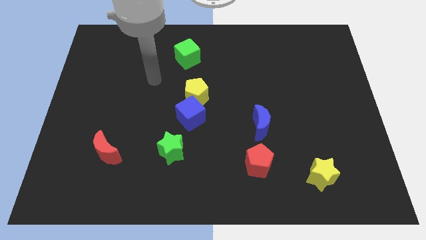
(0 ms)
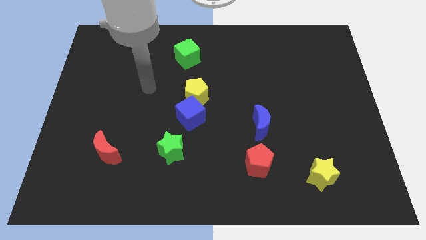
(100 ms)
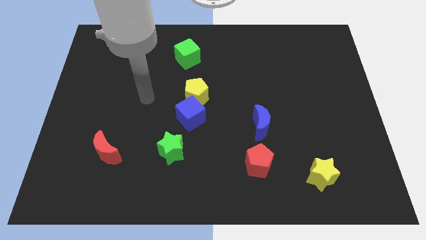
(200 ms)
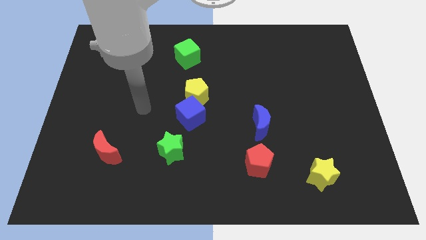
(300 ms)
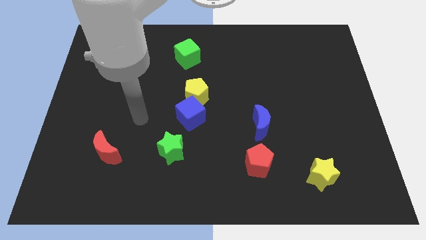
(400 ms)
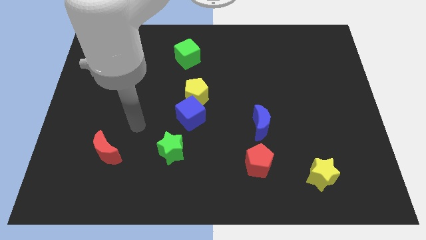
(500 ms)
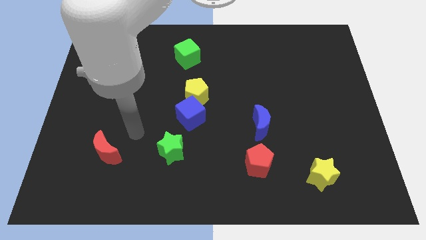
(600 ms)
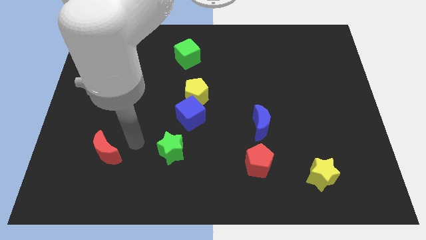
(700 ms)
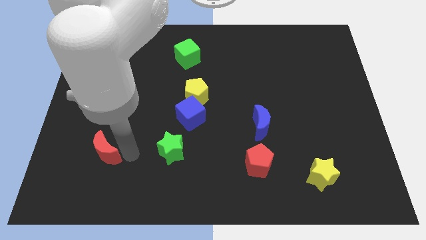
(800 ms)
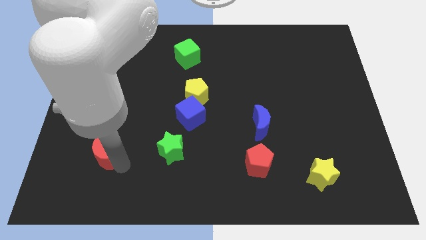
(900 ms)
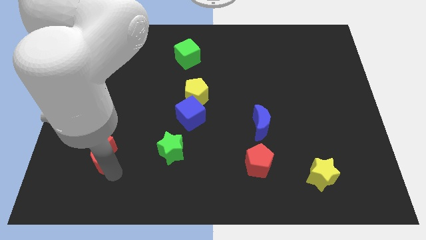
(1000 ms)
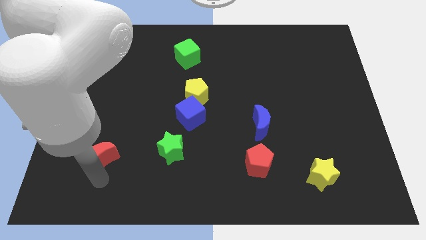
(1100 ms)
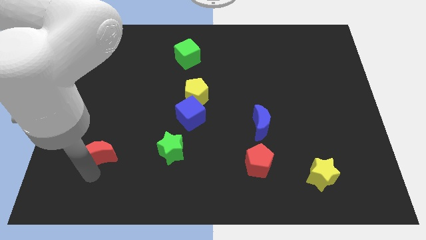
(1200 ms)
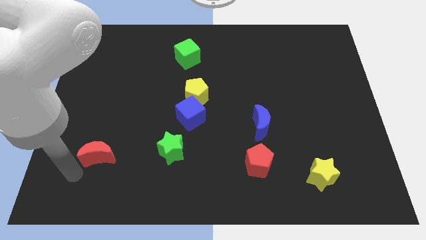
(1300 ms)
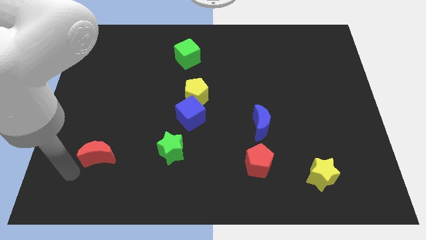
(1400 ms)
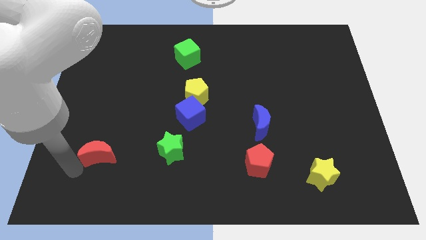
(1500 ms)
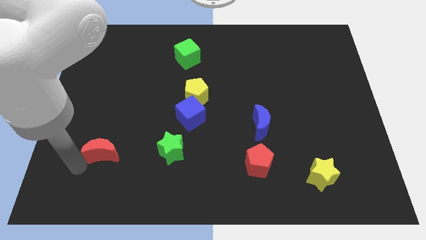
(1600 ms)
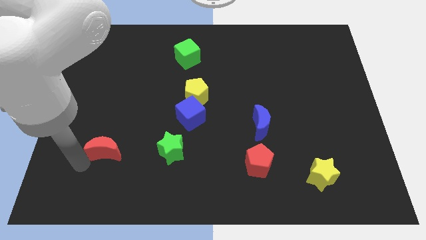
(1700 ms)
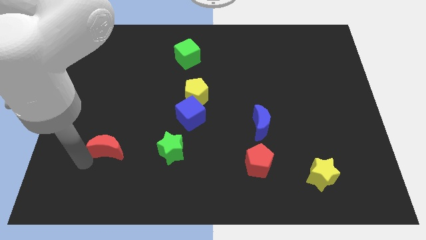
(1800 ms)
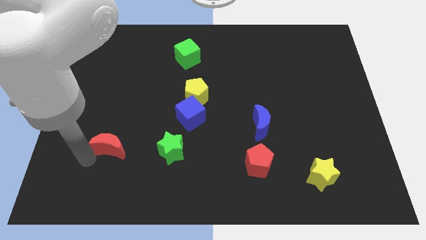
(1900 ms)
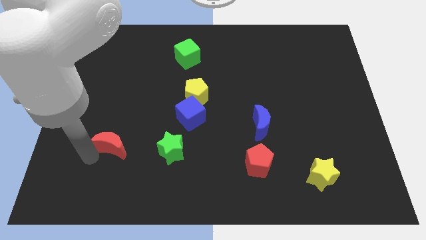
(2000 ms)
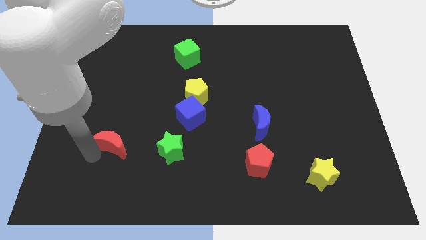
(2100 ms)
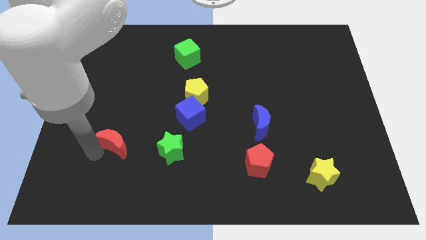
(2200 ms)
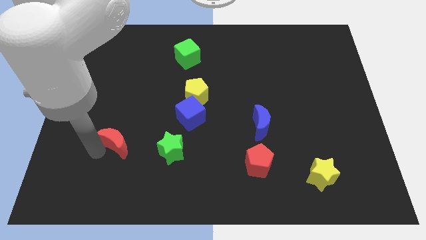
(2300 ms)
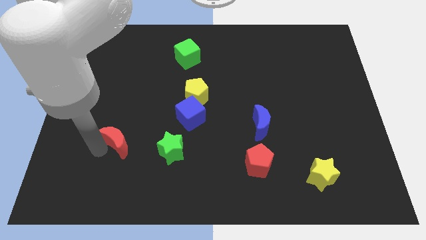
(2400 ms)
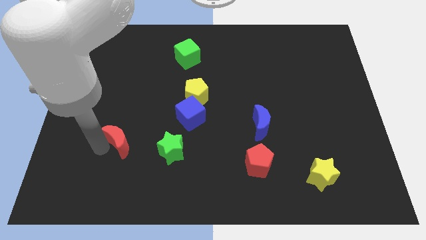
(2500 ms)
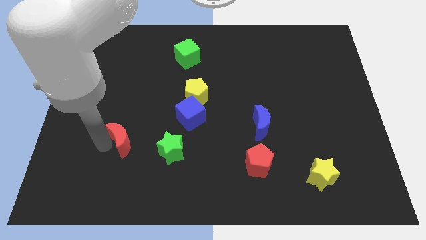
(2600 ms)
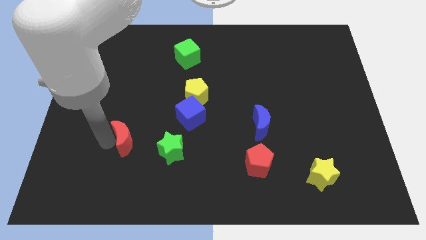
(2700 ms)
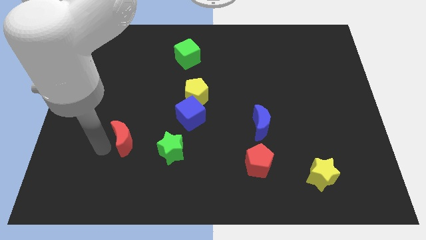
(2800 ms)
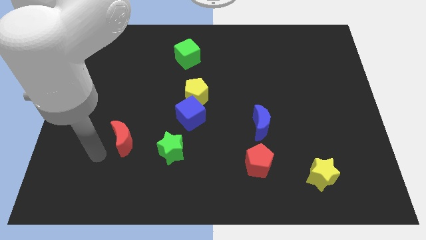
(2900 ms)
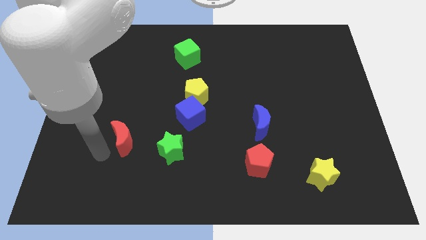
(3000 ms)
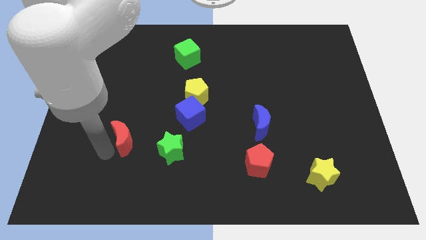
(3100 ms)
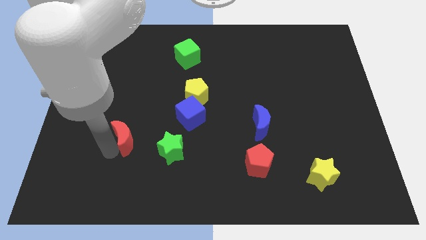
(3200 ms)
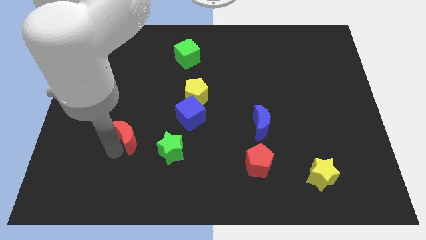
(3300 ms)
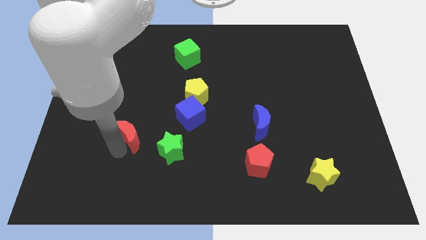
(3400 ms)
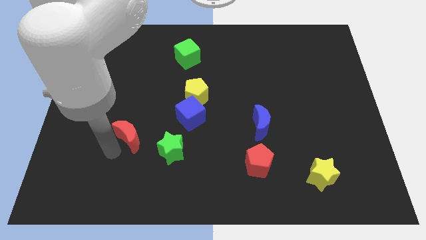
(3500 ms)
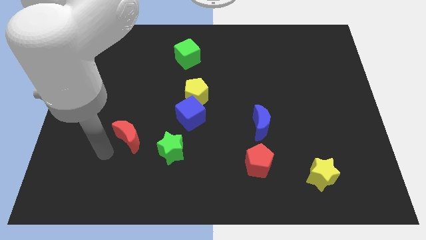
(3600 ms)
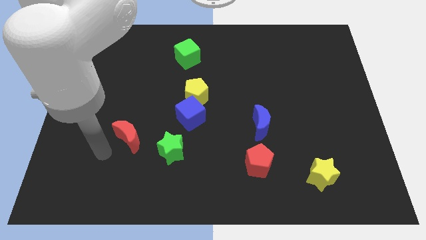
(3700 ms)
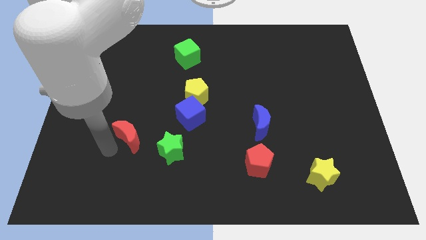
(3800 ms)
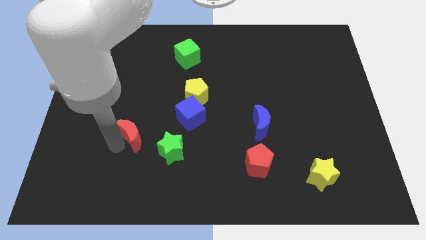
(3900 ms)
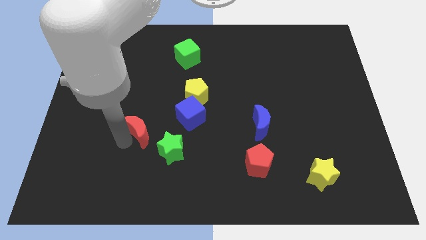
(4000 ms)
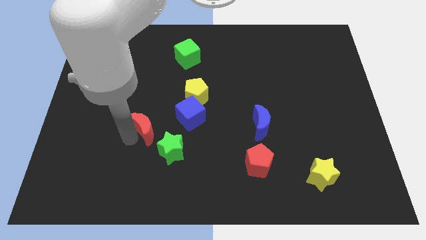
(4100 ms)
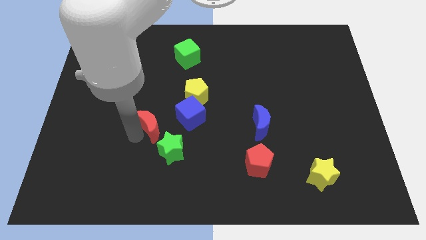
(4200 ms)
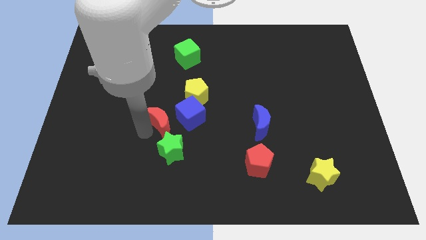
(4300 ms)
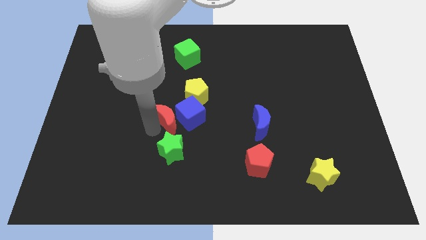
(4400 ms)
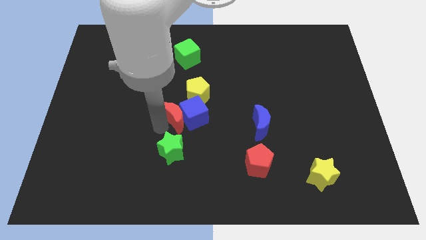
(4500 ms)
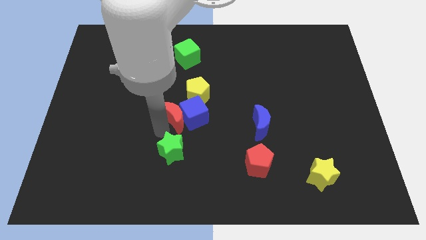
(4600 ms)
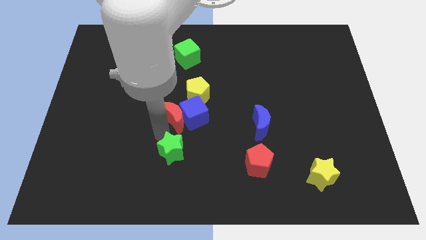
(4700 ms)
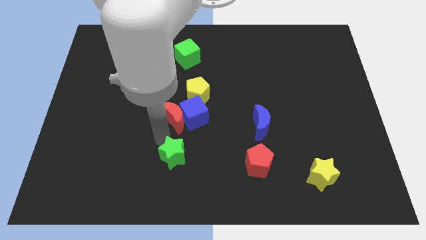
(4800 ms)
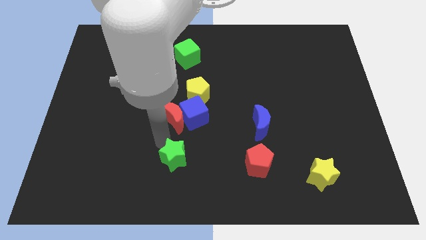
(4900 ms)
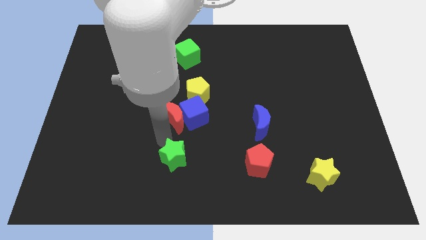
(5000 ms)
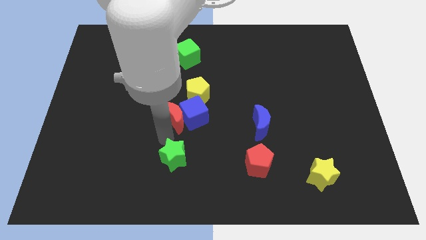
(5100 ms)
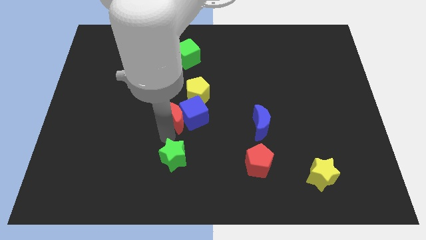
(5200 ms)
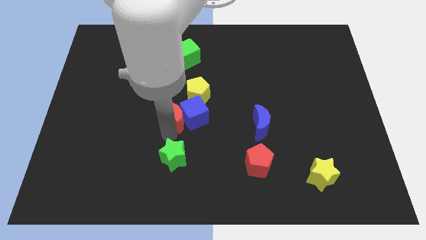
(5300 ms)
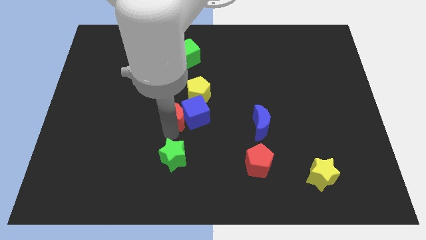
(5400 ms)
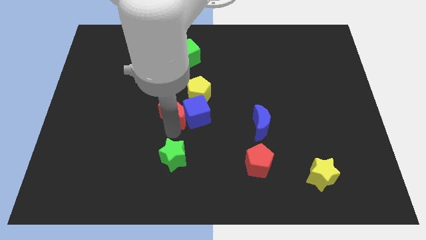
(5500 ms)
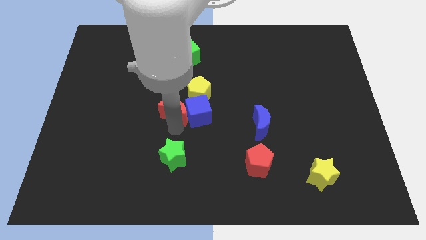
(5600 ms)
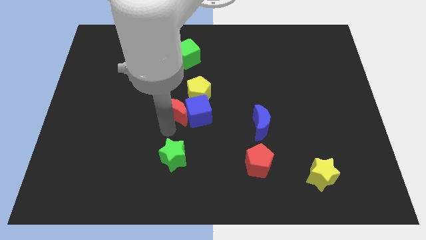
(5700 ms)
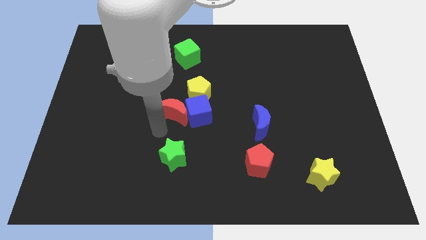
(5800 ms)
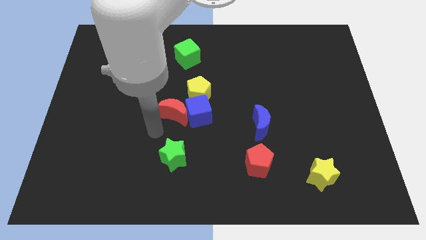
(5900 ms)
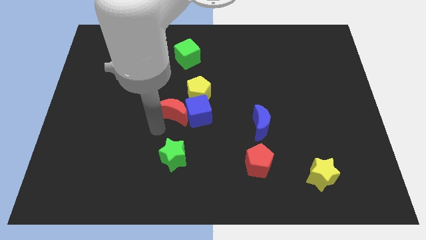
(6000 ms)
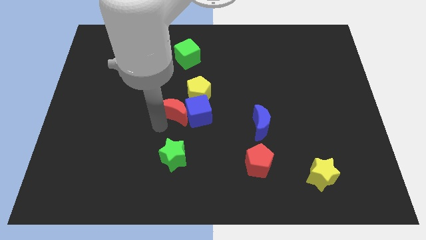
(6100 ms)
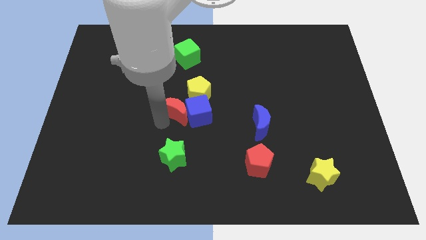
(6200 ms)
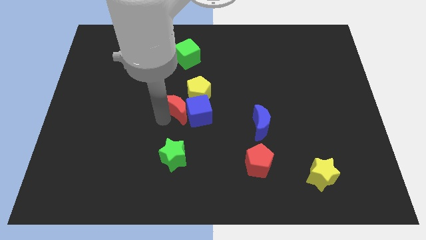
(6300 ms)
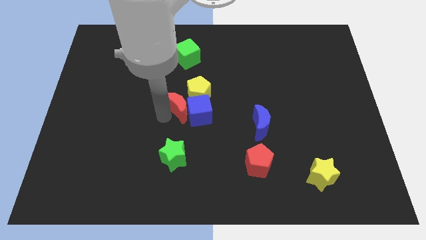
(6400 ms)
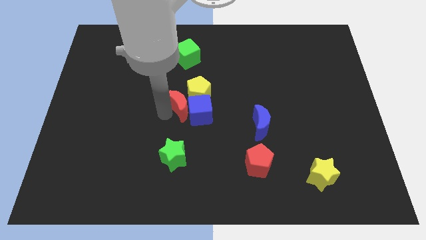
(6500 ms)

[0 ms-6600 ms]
move the red moon to the yellow pentagon

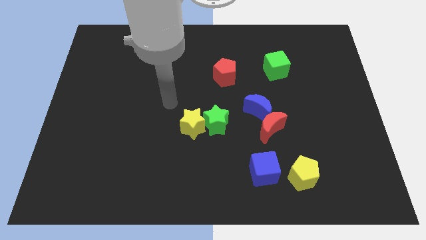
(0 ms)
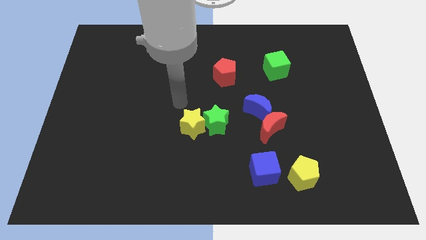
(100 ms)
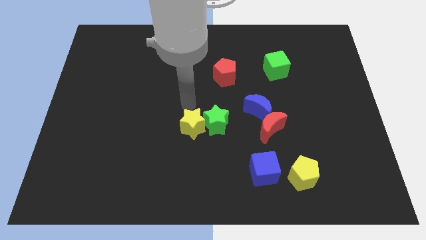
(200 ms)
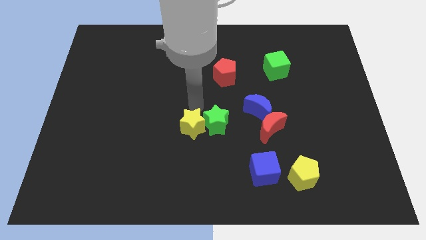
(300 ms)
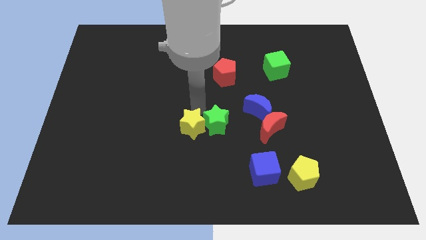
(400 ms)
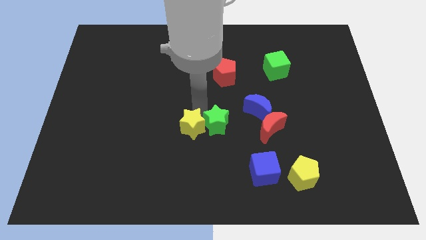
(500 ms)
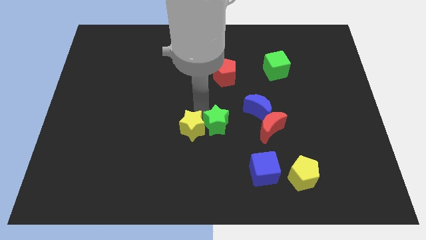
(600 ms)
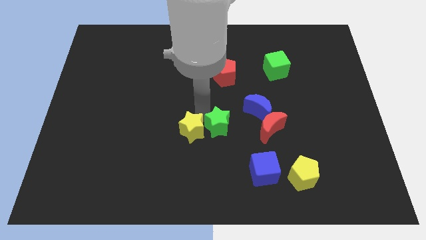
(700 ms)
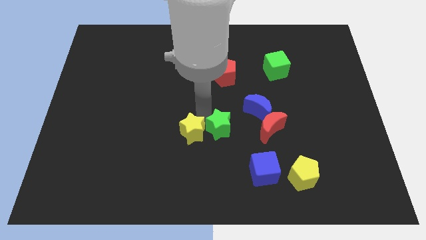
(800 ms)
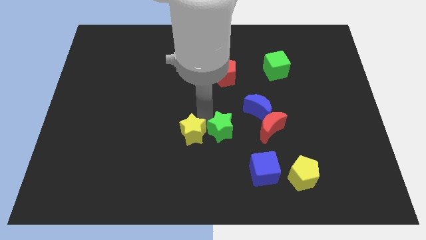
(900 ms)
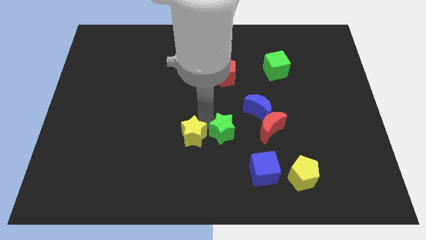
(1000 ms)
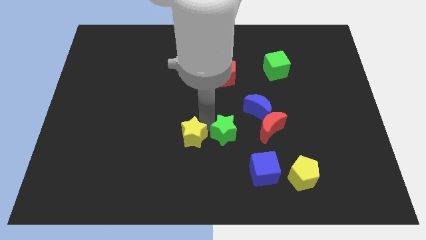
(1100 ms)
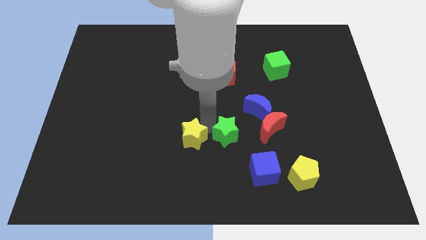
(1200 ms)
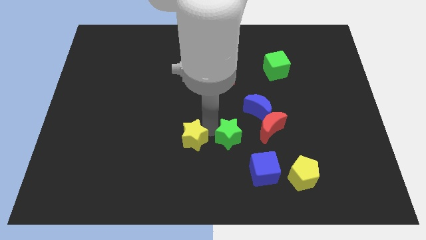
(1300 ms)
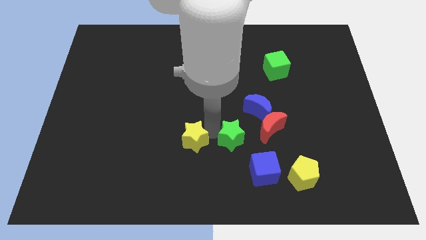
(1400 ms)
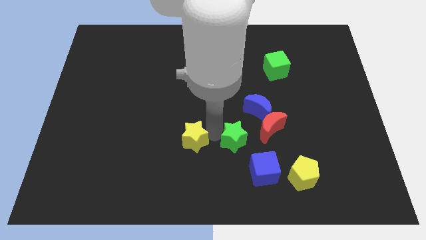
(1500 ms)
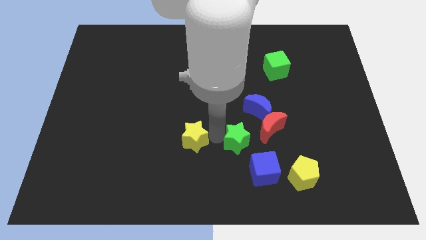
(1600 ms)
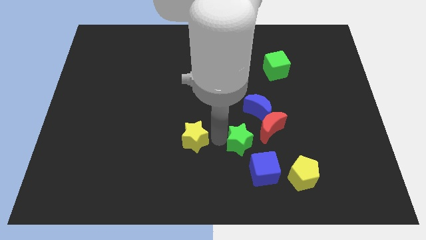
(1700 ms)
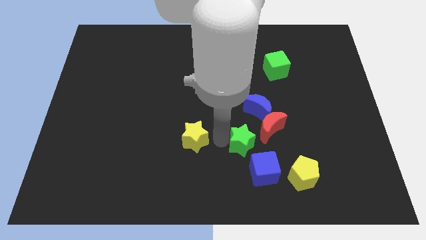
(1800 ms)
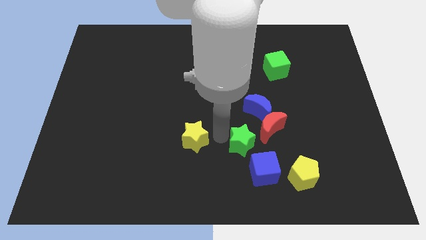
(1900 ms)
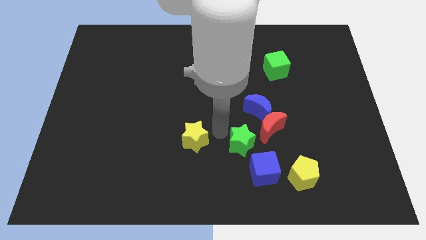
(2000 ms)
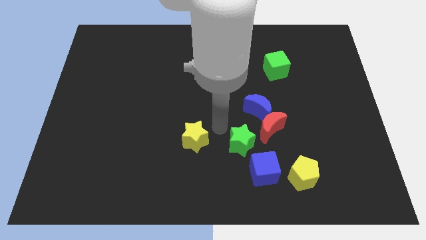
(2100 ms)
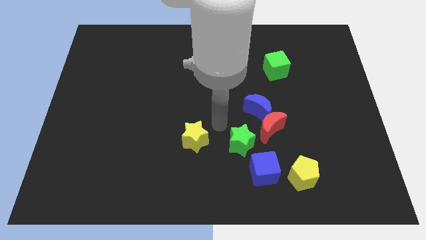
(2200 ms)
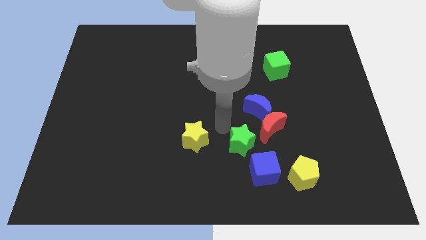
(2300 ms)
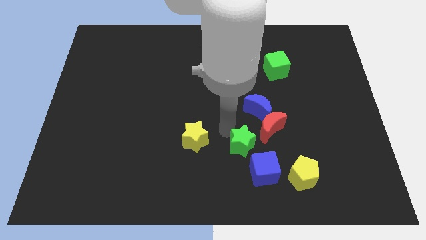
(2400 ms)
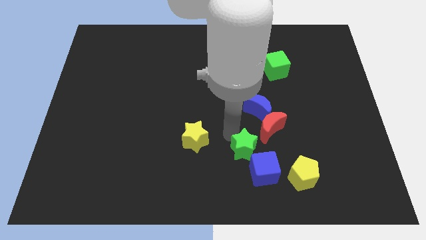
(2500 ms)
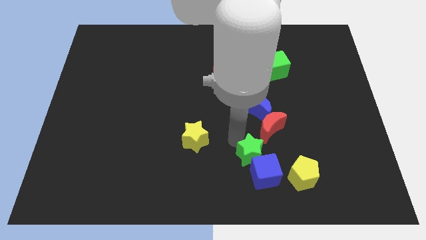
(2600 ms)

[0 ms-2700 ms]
slide the green star towards the blue cube
